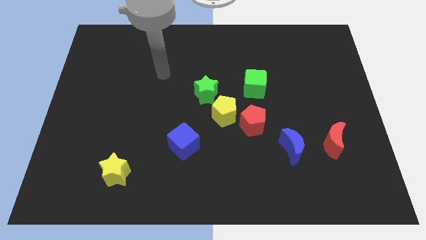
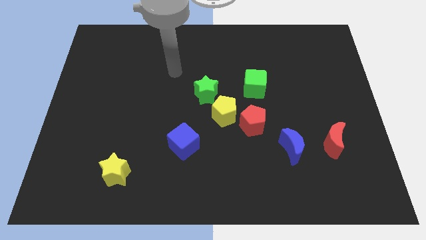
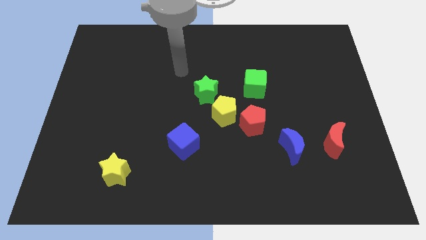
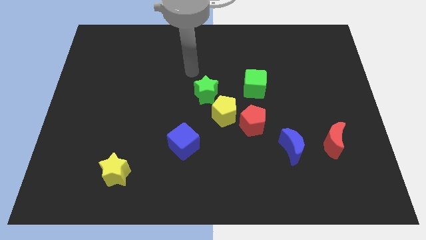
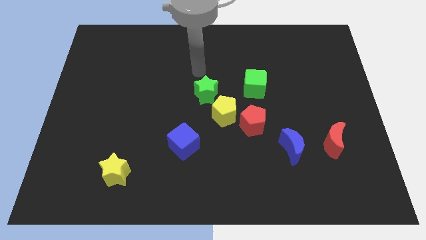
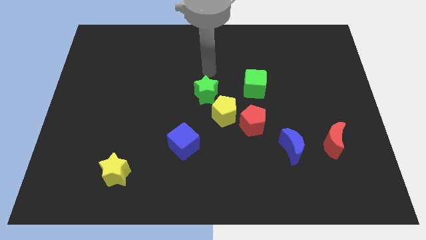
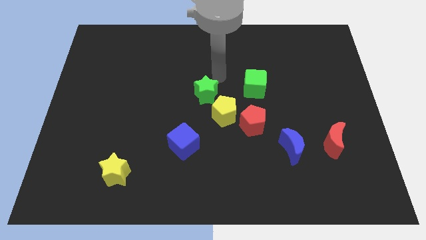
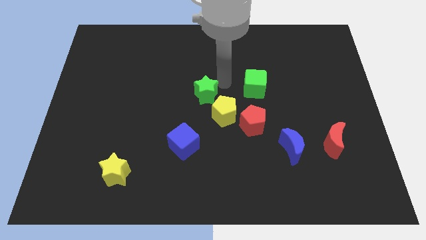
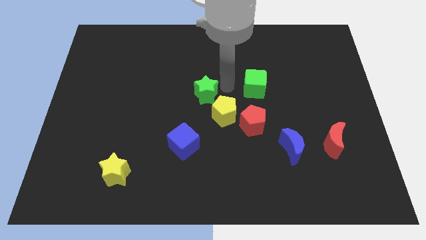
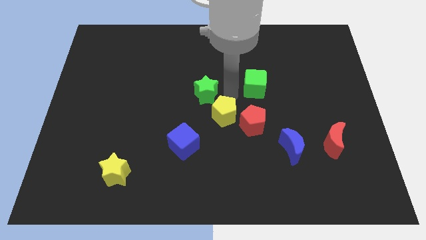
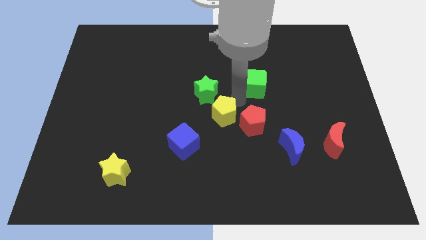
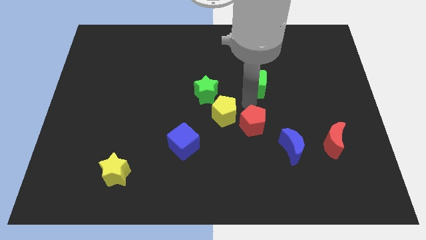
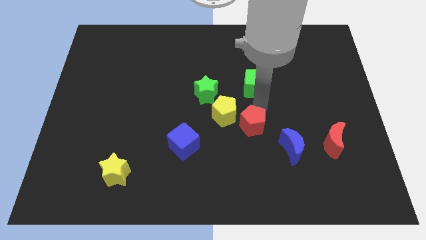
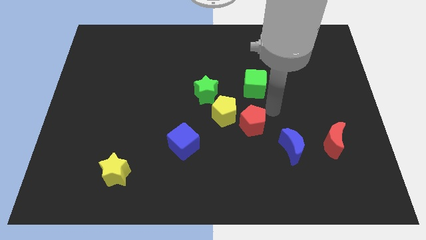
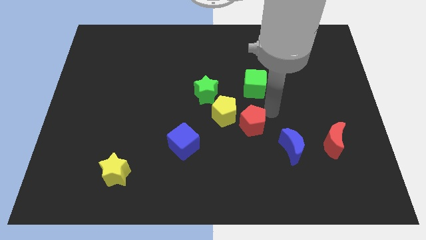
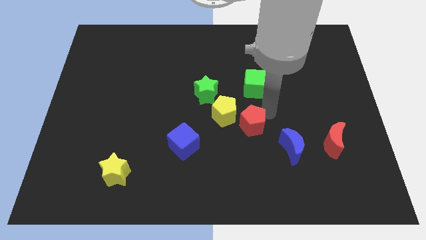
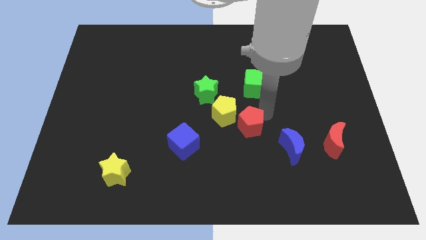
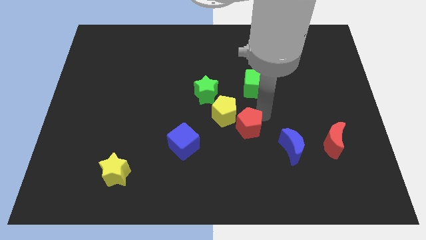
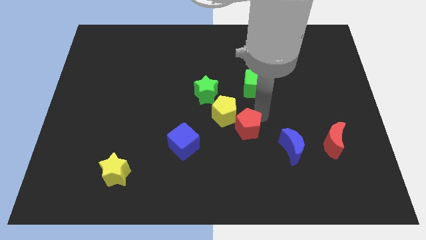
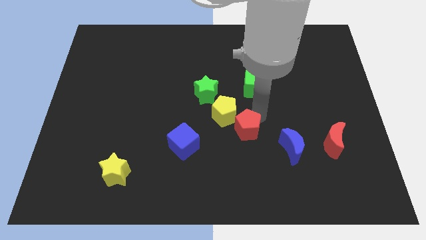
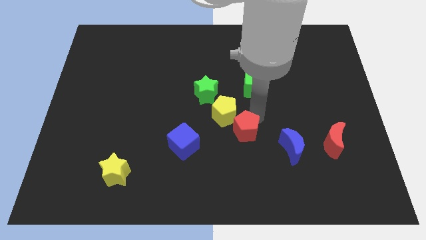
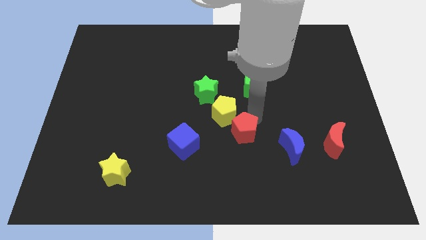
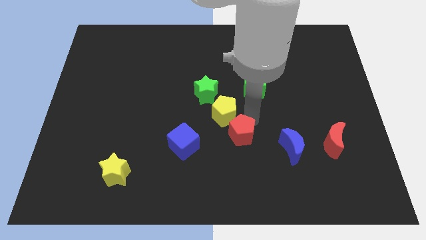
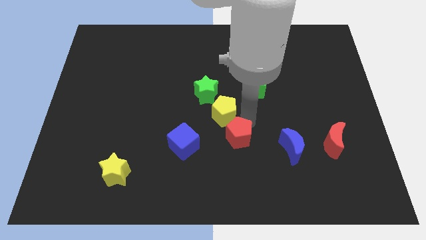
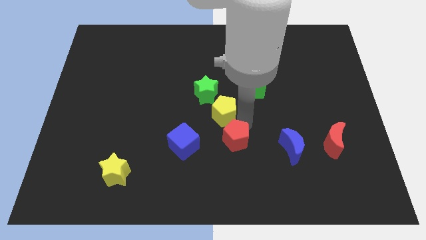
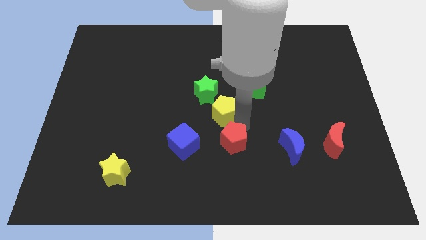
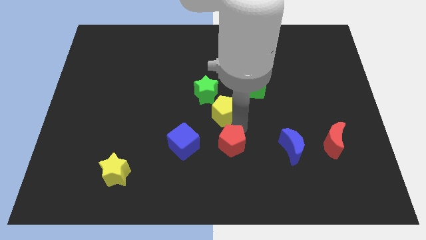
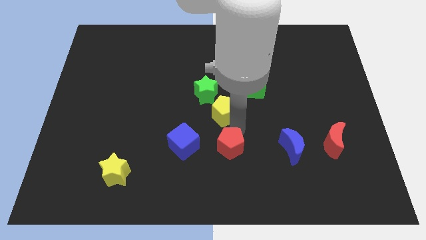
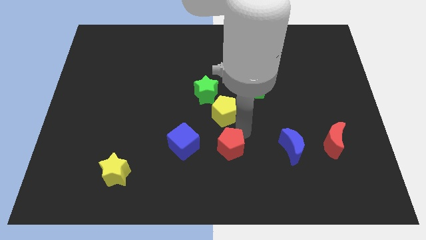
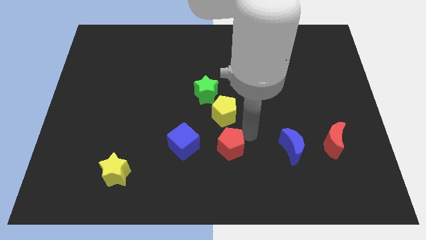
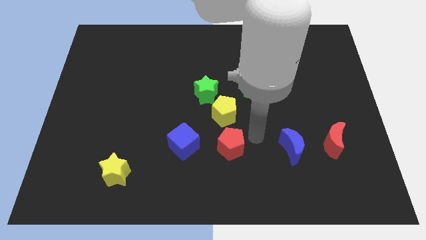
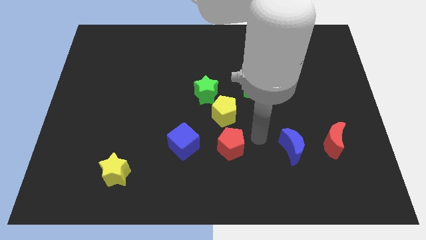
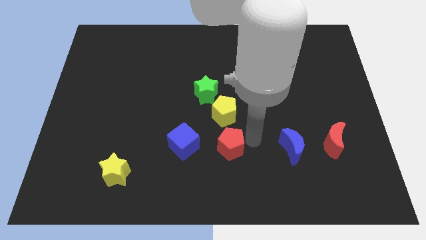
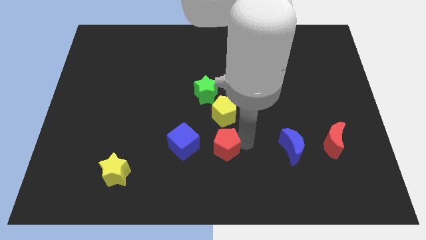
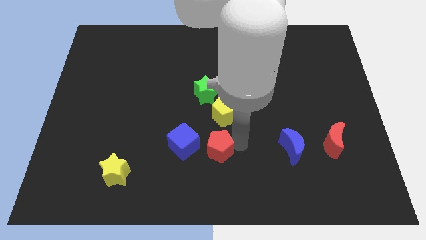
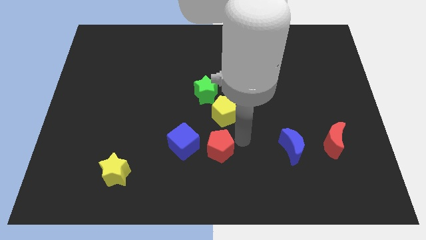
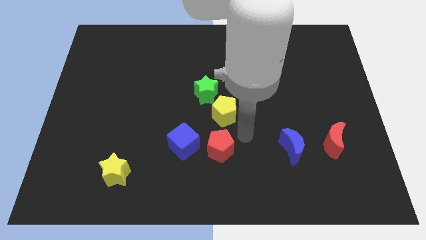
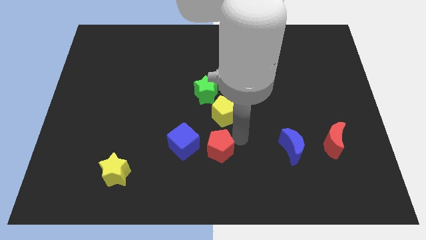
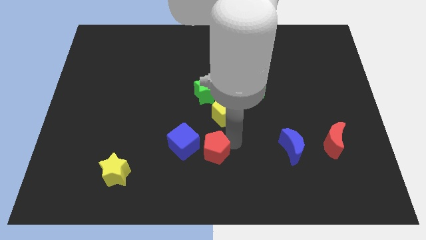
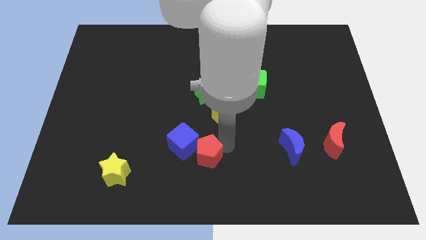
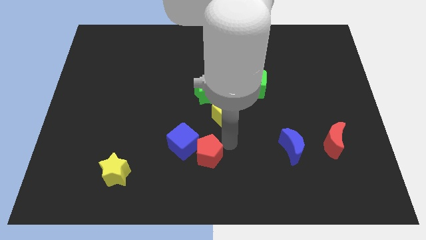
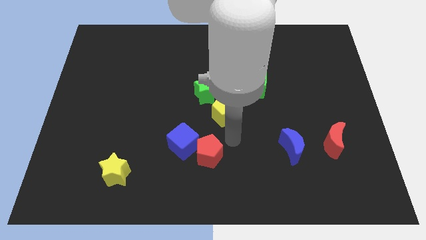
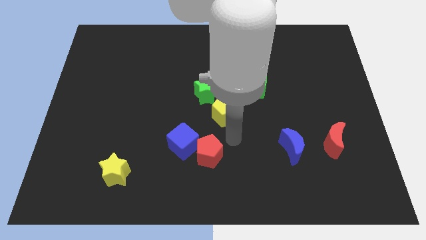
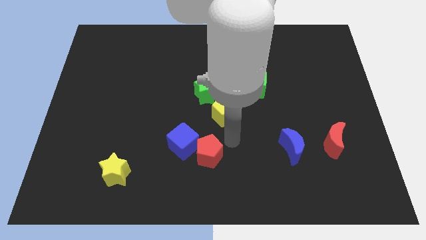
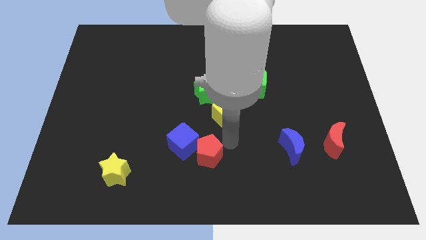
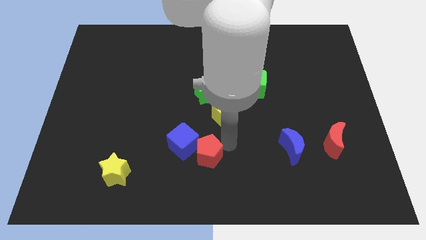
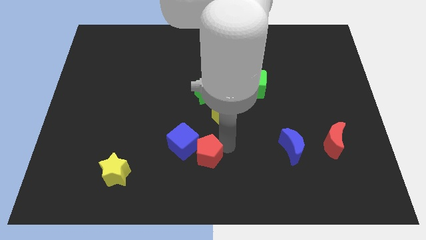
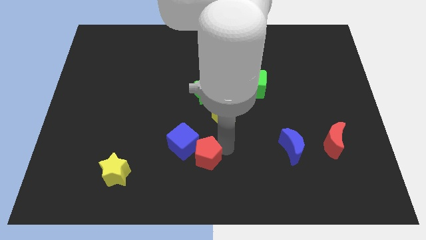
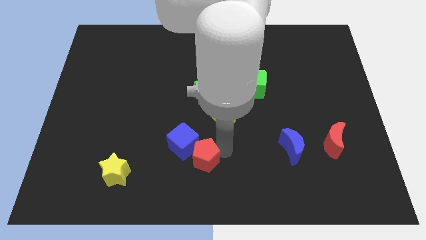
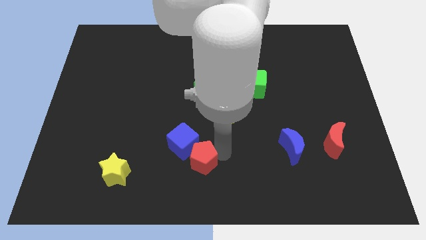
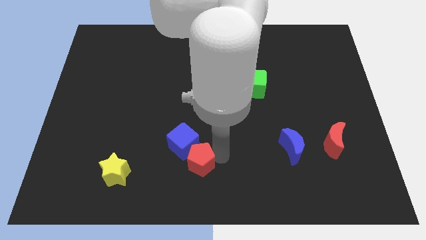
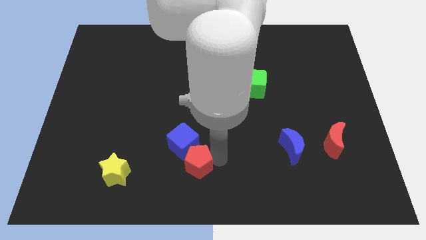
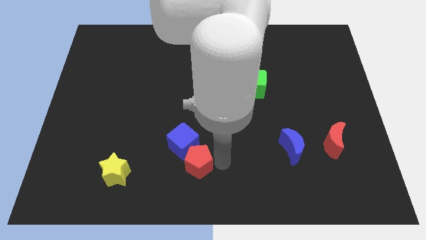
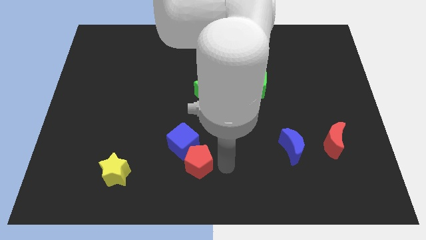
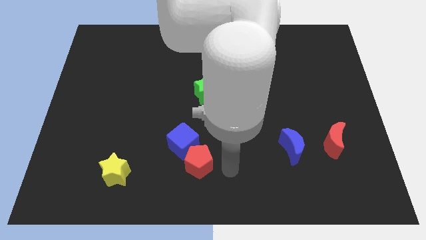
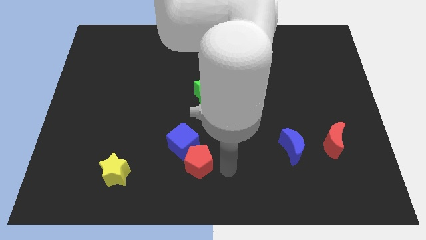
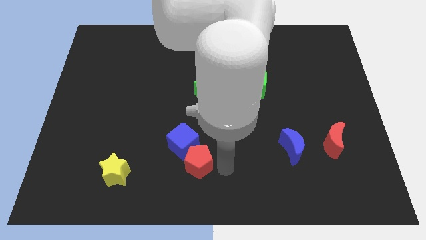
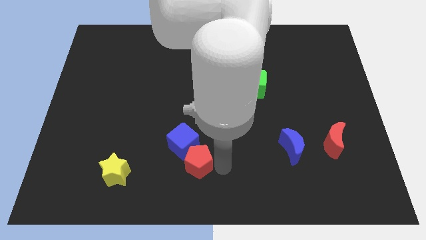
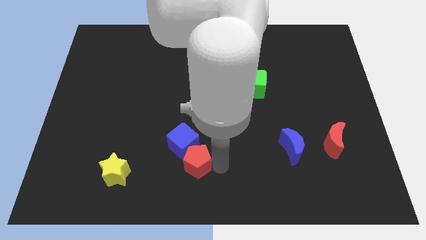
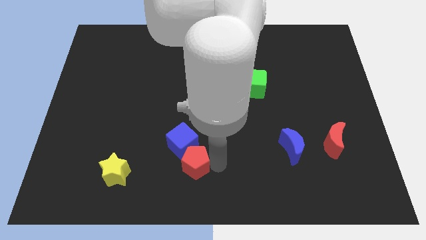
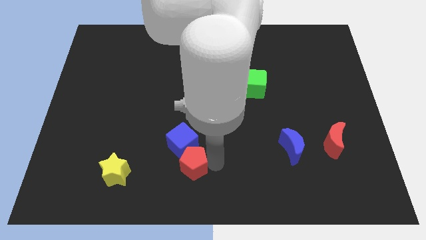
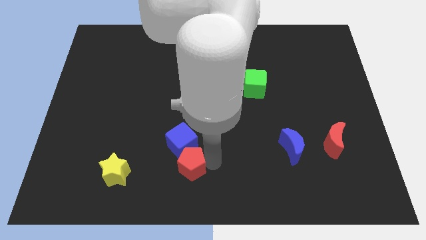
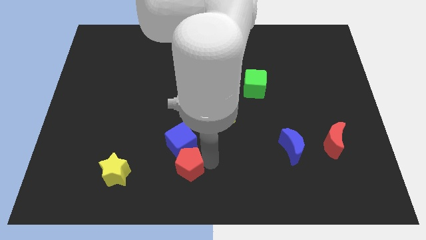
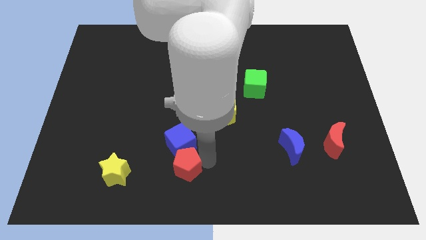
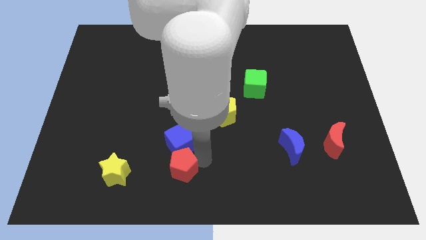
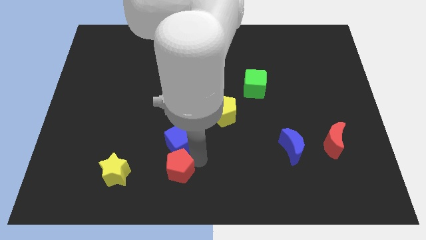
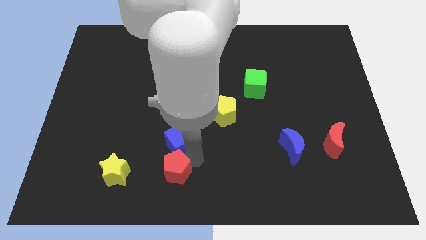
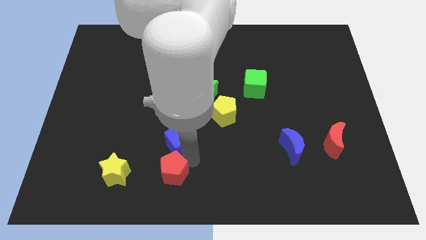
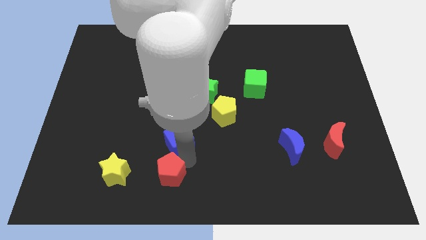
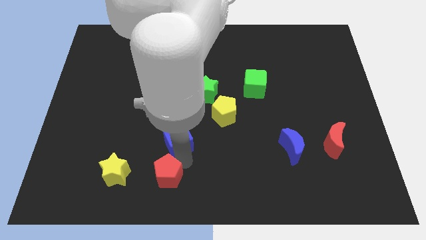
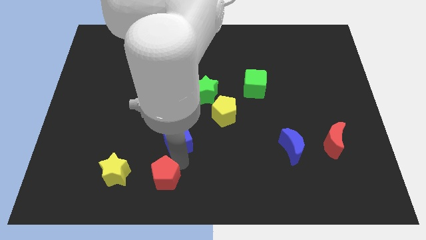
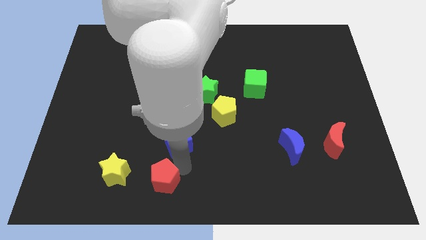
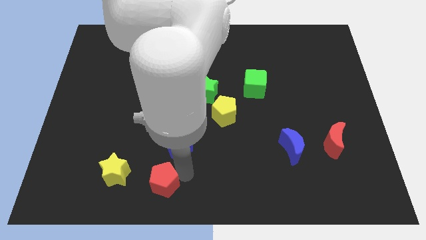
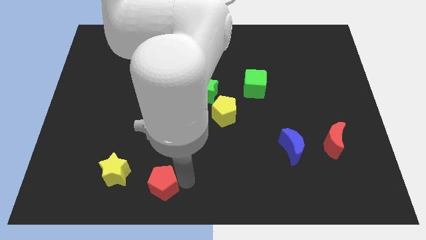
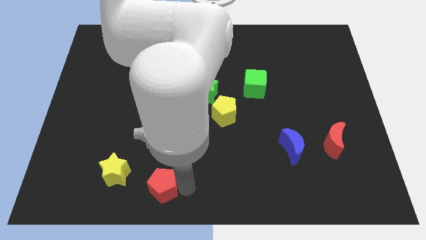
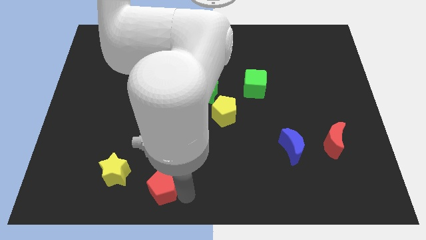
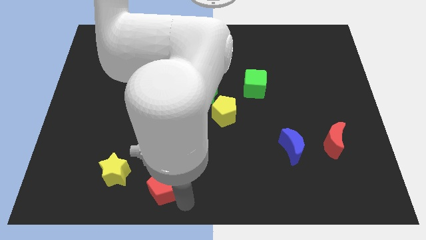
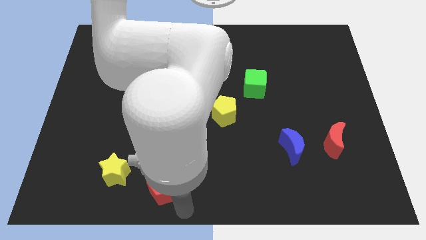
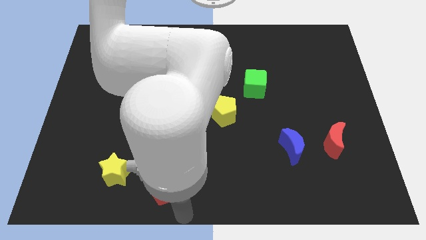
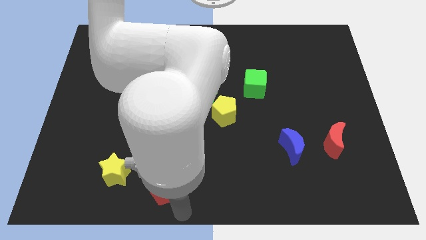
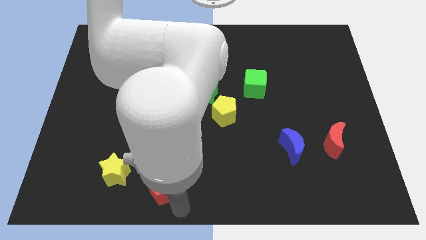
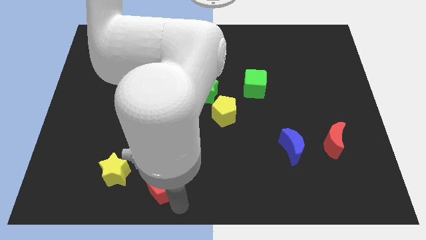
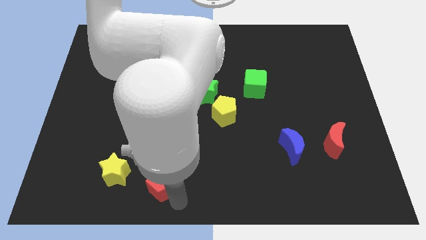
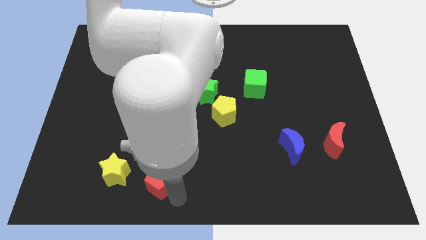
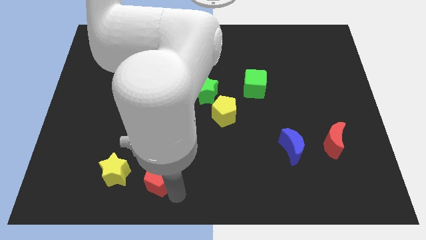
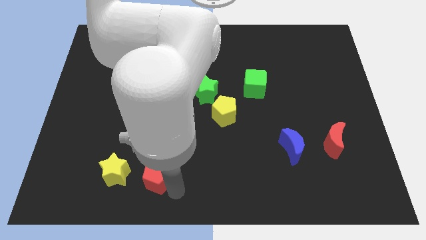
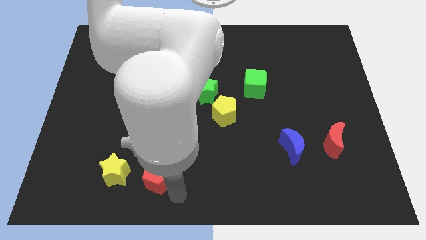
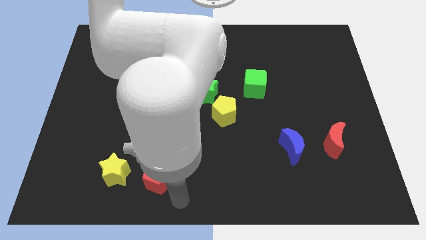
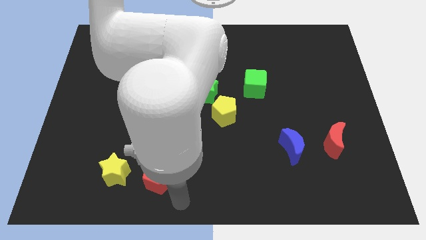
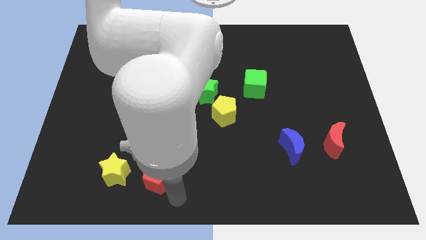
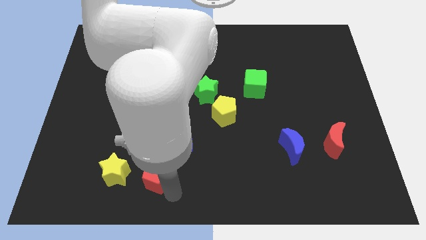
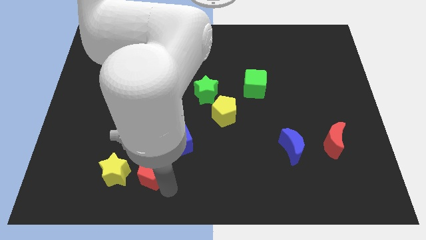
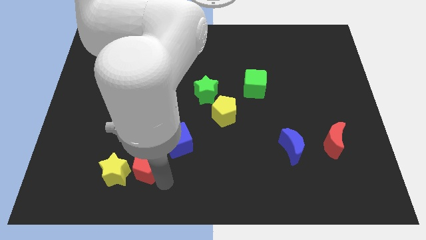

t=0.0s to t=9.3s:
push the red pentagon close to the yellow star
